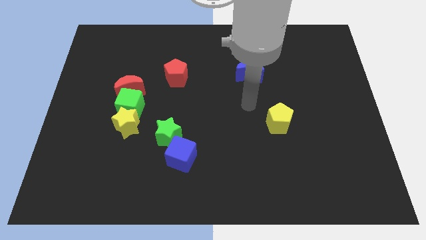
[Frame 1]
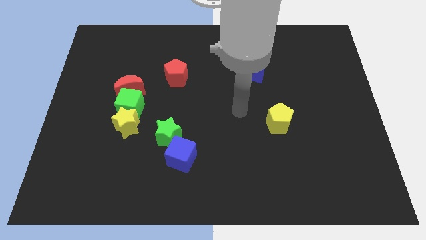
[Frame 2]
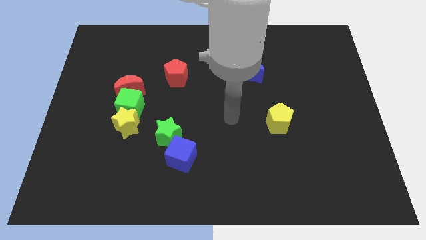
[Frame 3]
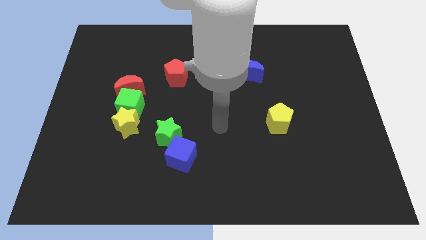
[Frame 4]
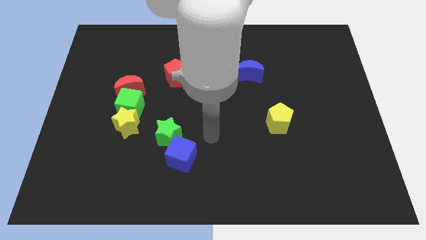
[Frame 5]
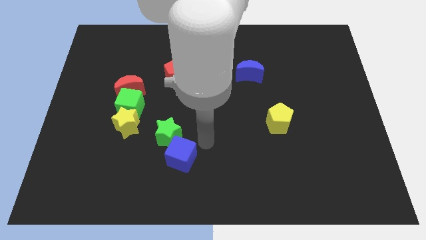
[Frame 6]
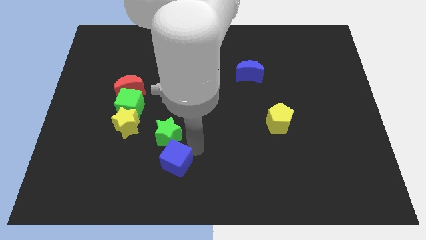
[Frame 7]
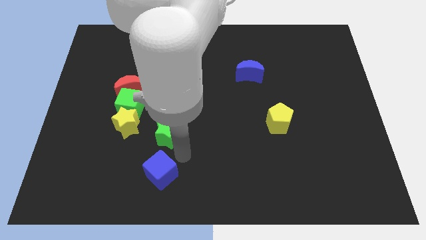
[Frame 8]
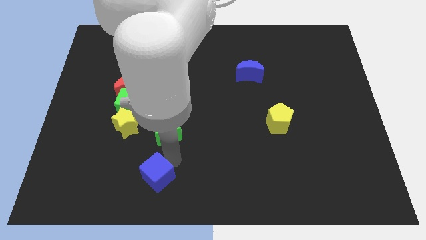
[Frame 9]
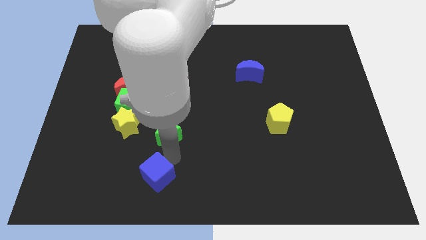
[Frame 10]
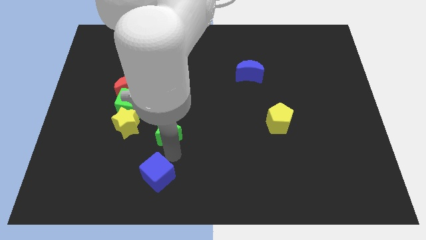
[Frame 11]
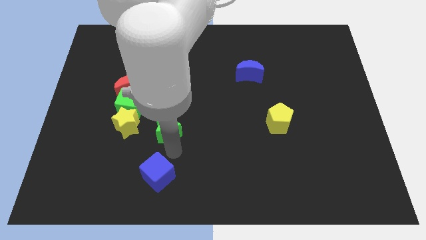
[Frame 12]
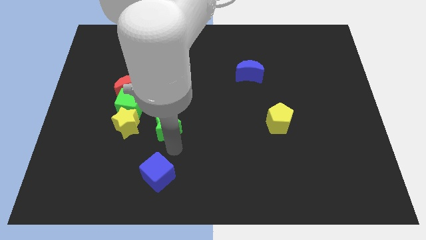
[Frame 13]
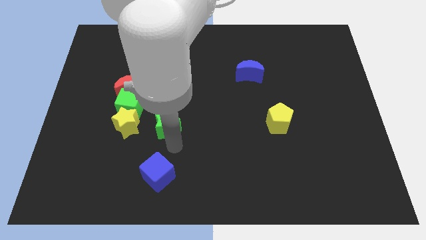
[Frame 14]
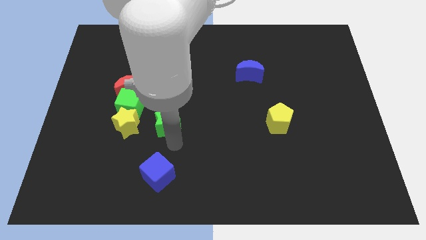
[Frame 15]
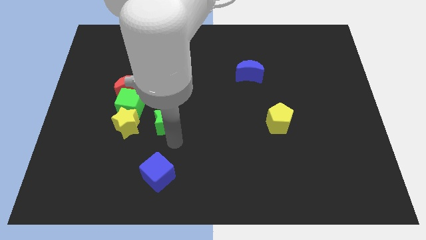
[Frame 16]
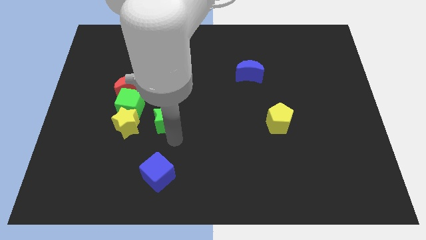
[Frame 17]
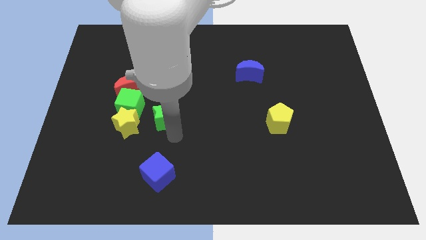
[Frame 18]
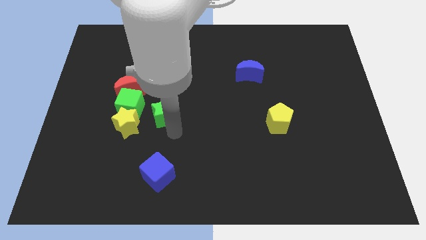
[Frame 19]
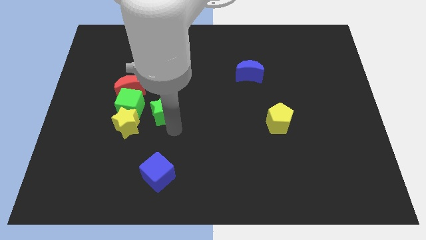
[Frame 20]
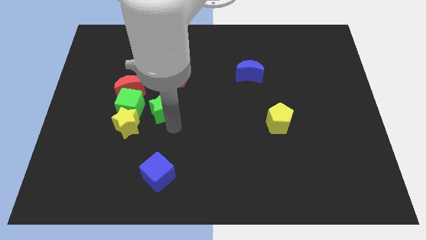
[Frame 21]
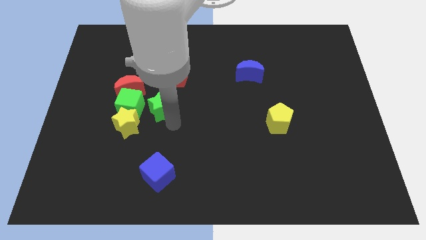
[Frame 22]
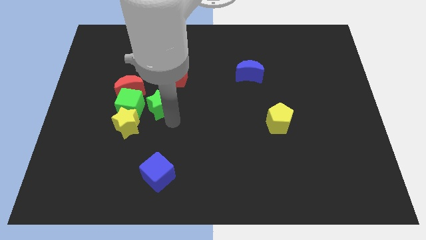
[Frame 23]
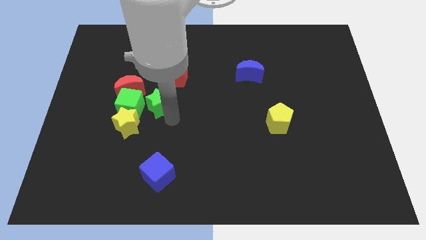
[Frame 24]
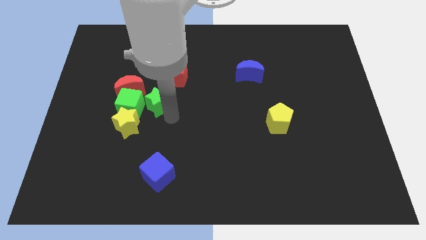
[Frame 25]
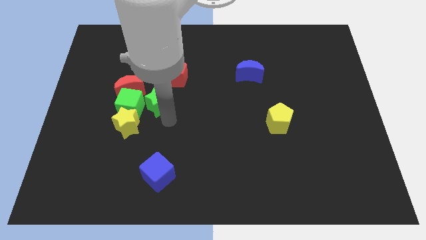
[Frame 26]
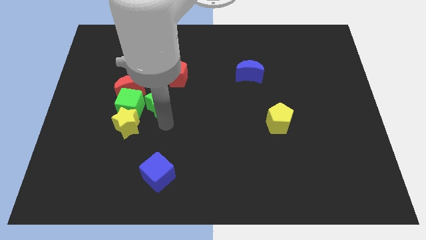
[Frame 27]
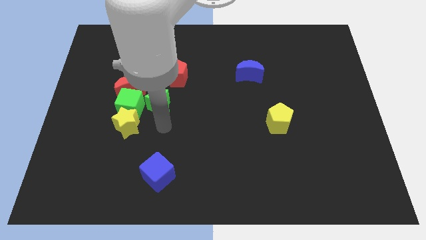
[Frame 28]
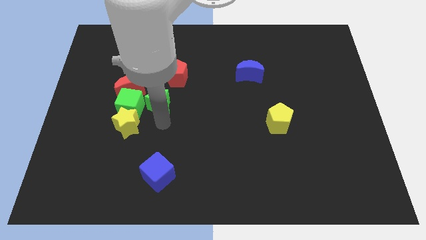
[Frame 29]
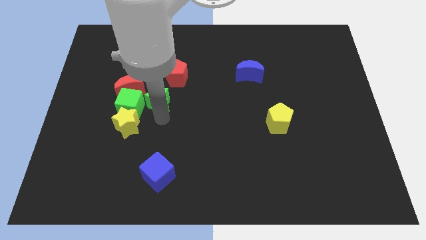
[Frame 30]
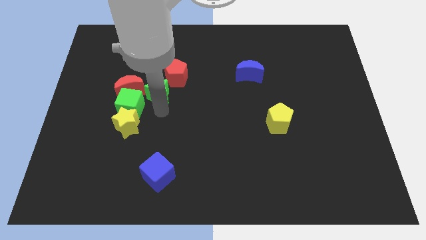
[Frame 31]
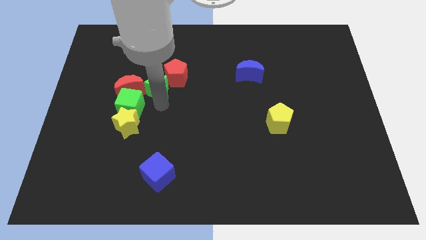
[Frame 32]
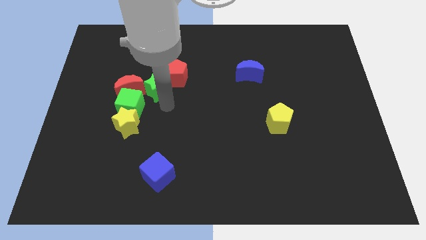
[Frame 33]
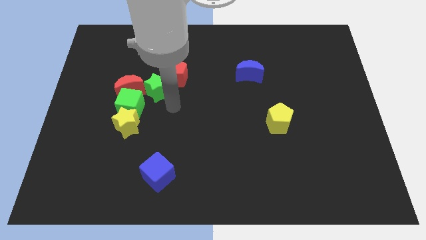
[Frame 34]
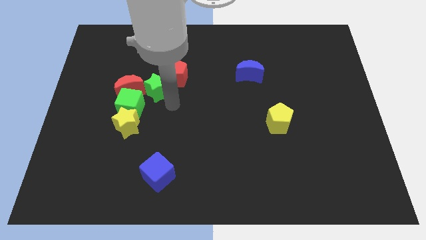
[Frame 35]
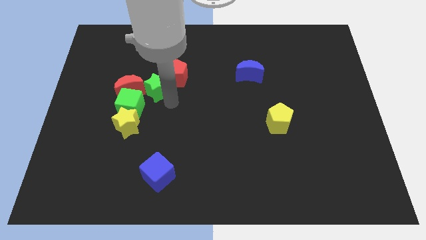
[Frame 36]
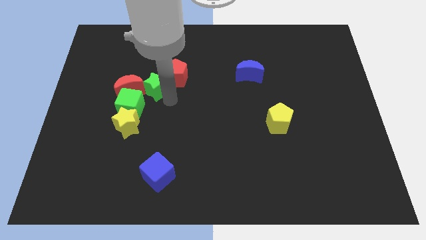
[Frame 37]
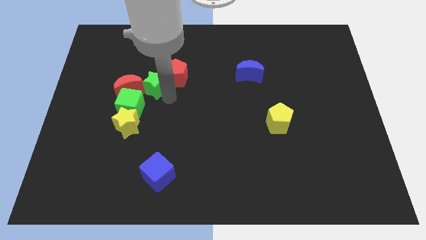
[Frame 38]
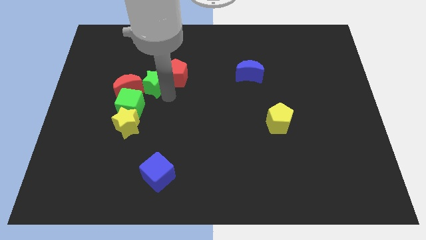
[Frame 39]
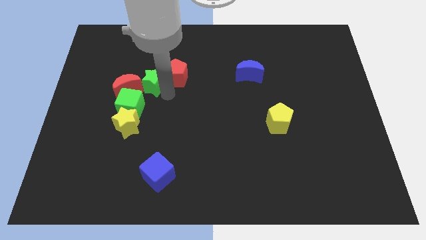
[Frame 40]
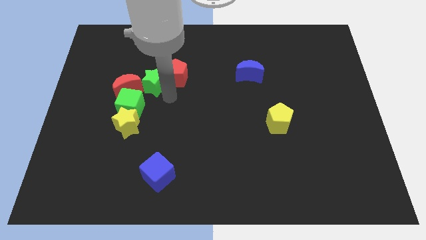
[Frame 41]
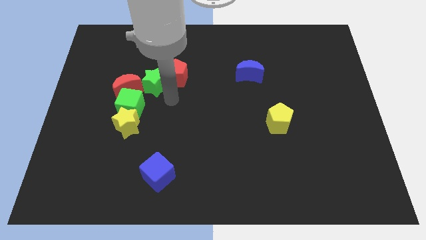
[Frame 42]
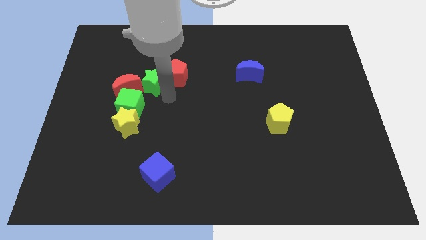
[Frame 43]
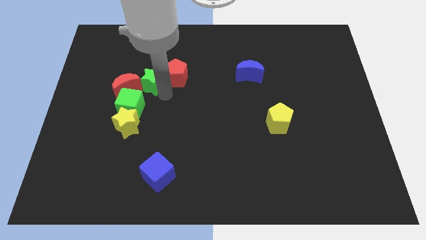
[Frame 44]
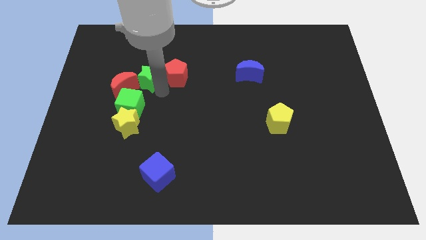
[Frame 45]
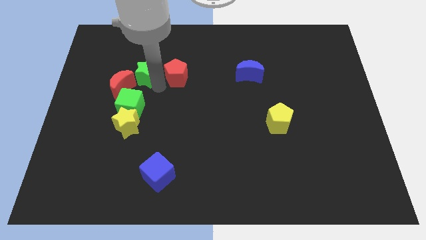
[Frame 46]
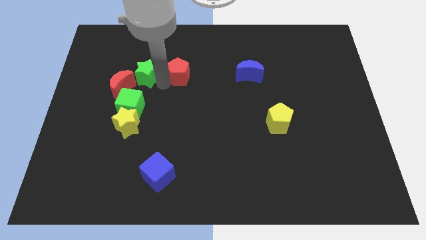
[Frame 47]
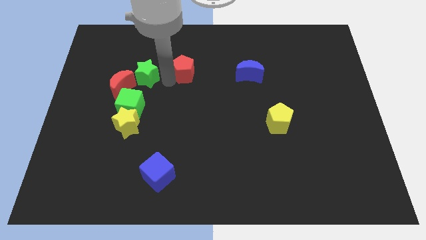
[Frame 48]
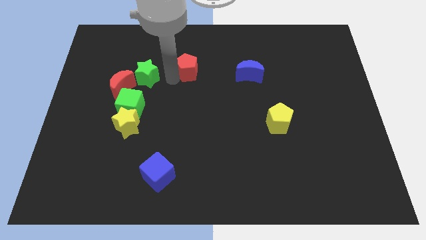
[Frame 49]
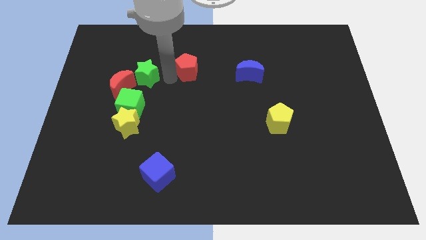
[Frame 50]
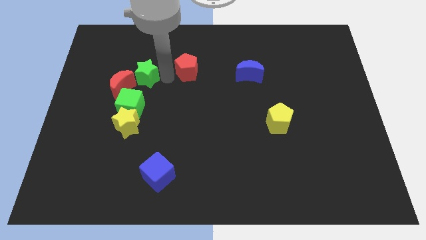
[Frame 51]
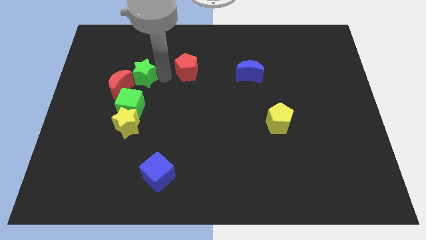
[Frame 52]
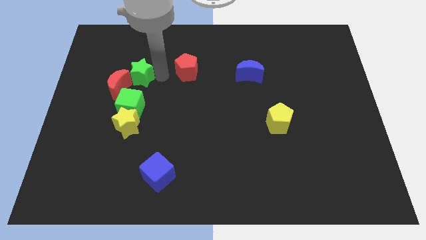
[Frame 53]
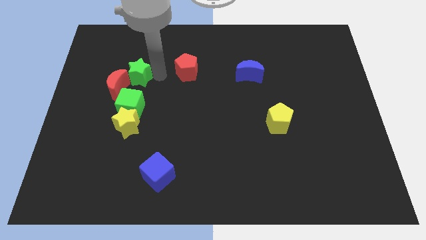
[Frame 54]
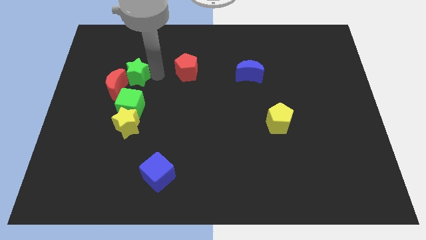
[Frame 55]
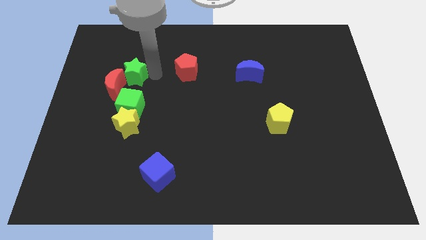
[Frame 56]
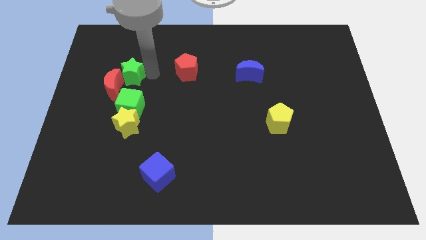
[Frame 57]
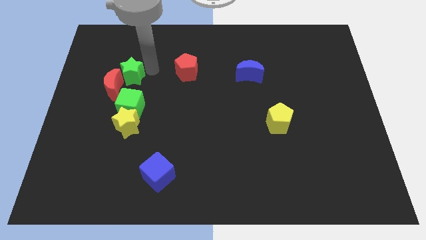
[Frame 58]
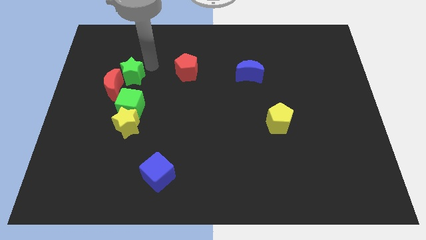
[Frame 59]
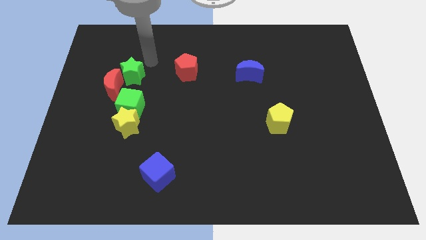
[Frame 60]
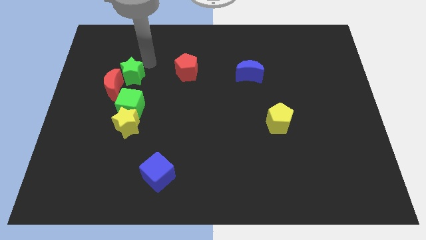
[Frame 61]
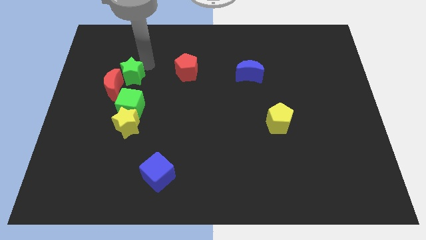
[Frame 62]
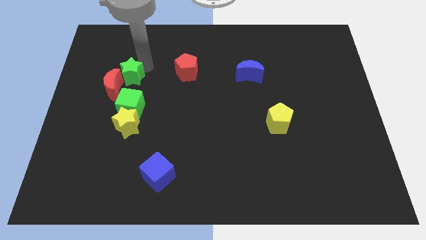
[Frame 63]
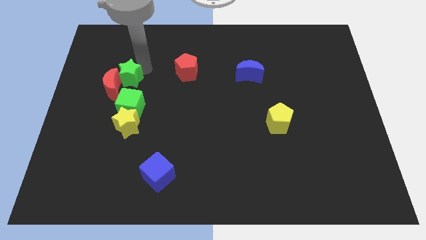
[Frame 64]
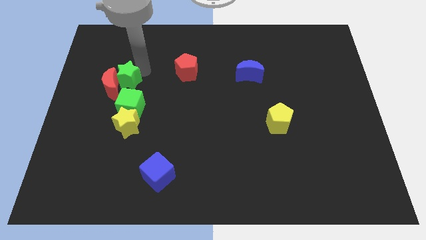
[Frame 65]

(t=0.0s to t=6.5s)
move the green star to the top left of the green cube

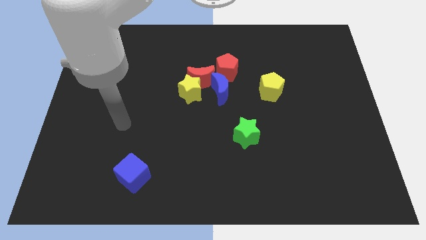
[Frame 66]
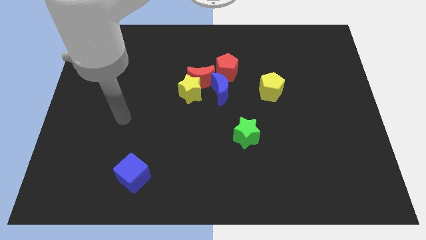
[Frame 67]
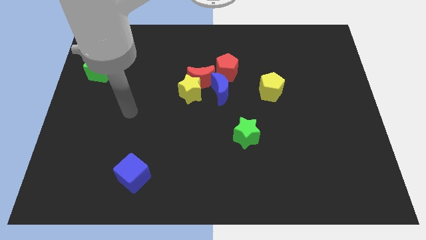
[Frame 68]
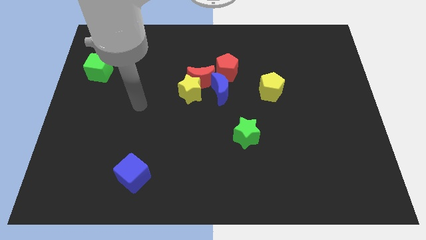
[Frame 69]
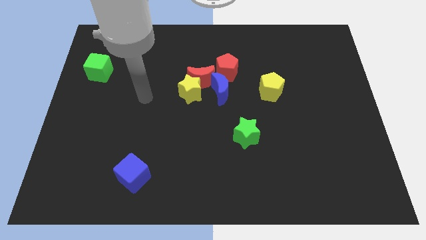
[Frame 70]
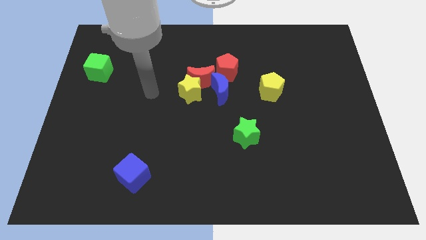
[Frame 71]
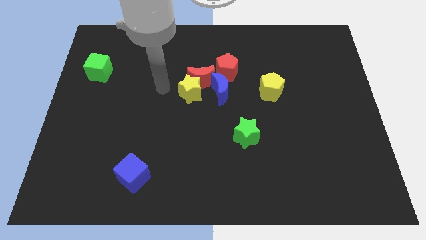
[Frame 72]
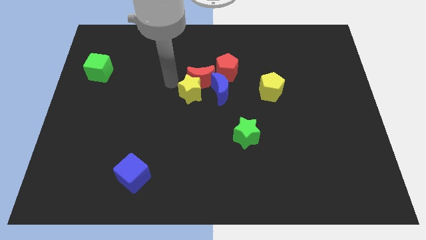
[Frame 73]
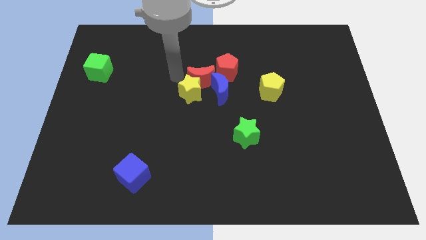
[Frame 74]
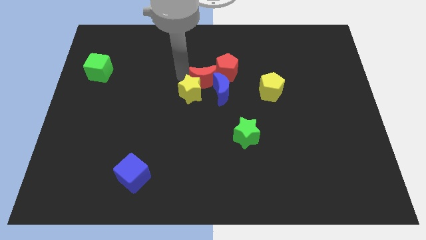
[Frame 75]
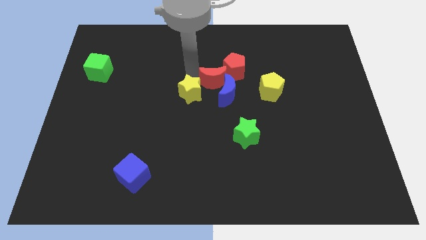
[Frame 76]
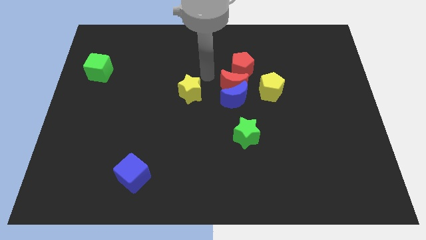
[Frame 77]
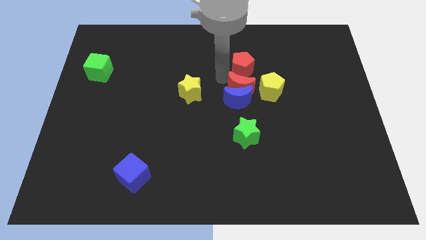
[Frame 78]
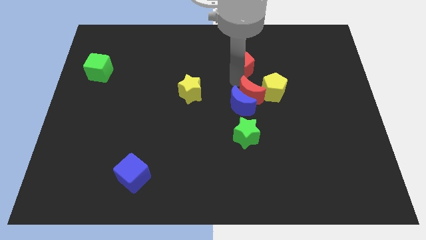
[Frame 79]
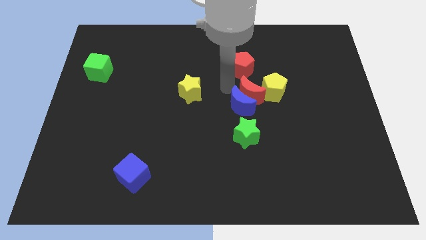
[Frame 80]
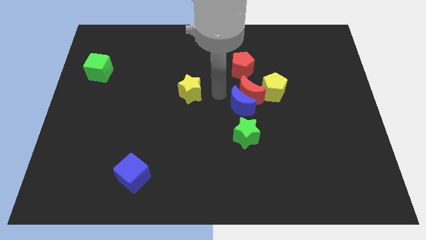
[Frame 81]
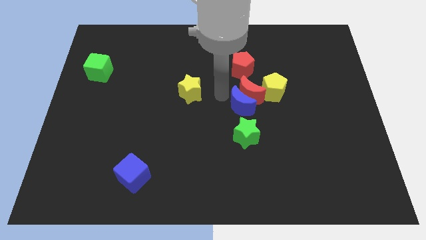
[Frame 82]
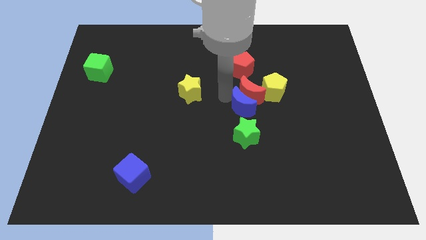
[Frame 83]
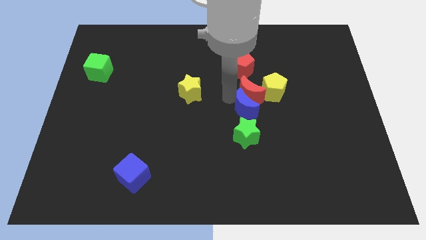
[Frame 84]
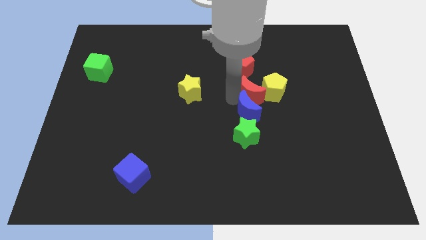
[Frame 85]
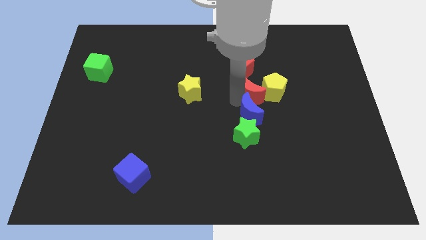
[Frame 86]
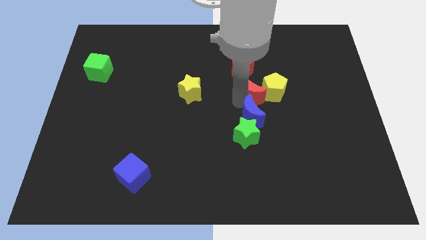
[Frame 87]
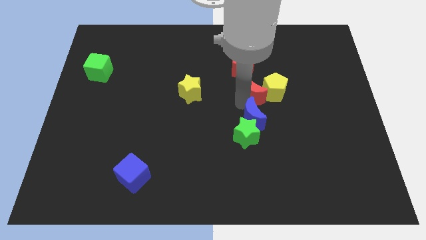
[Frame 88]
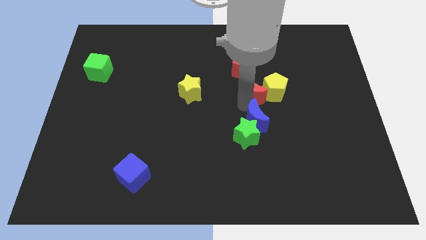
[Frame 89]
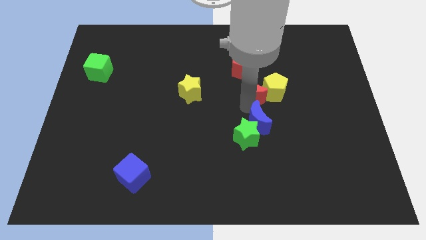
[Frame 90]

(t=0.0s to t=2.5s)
push the blue moon to the bottom of the yellow pentagon
